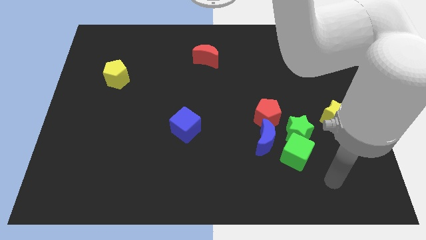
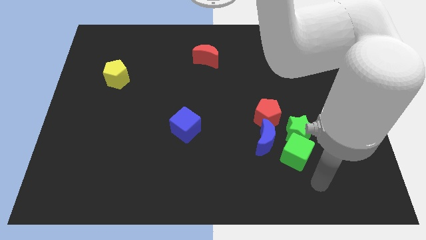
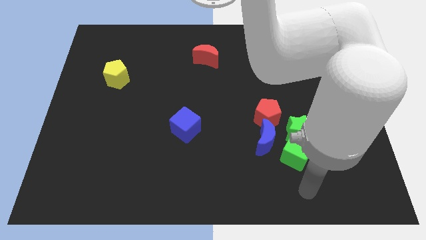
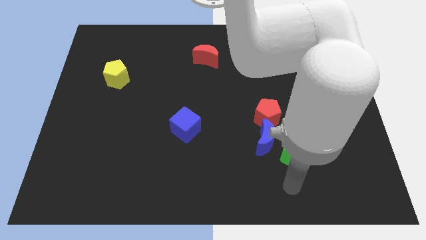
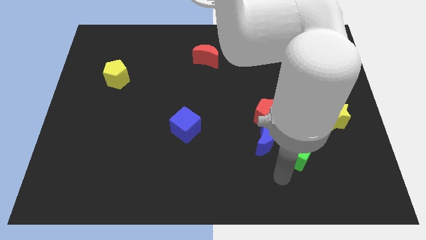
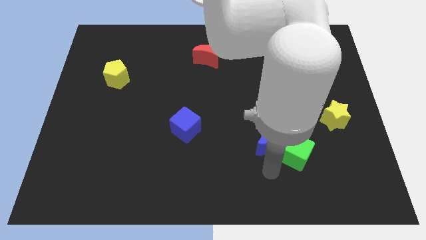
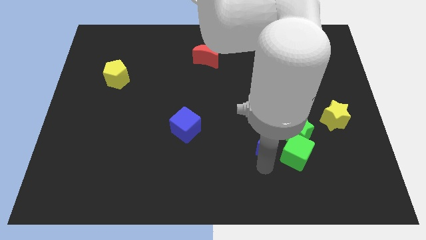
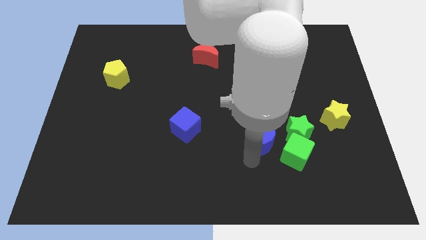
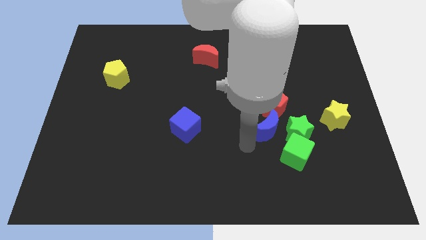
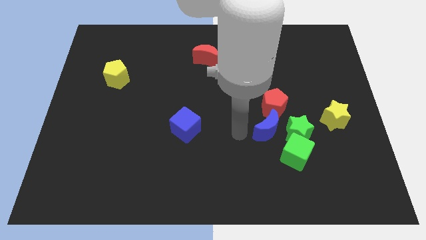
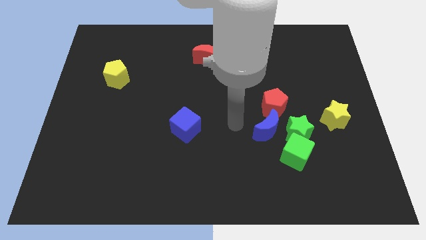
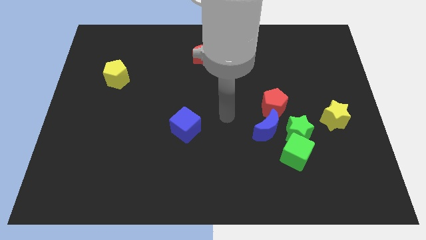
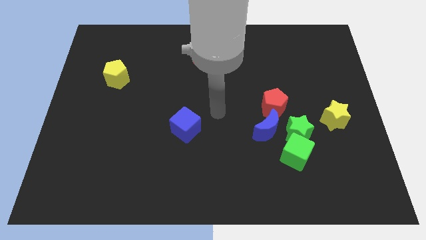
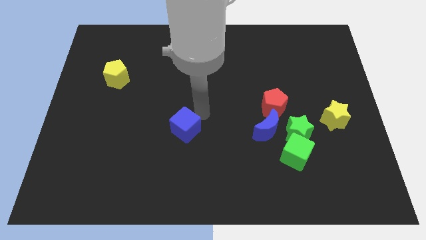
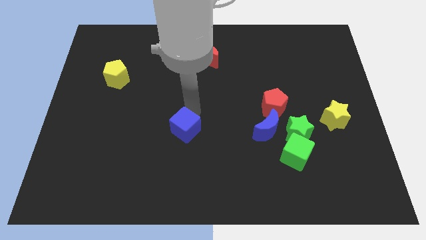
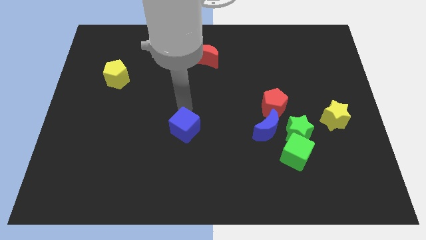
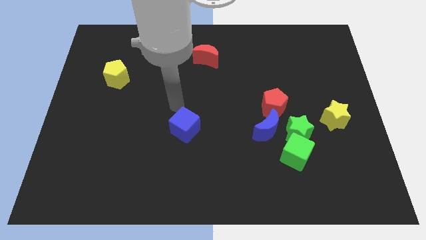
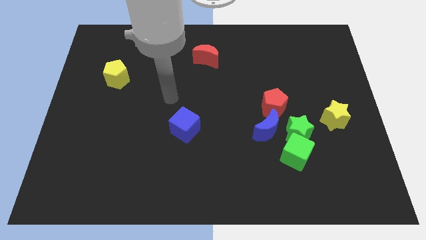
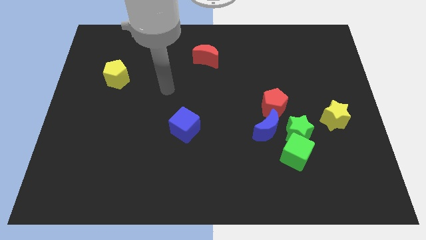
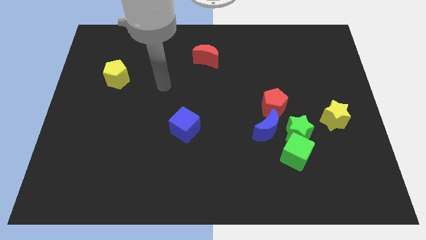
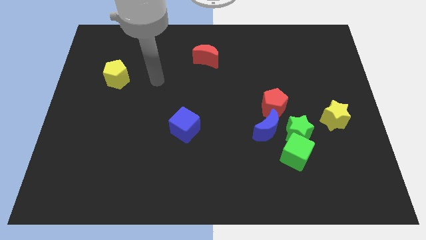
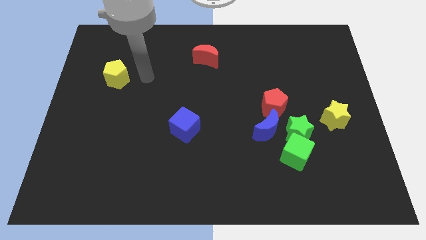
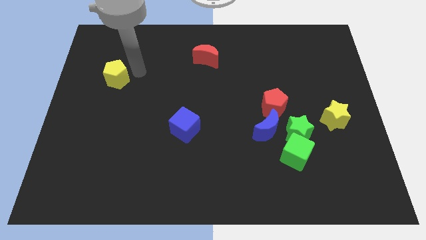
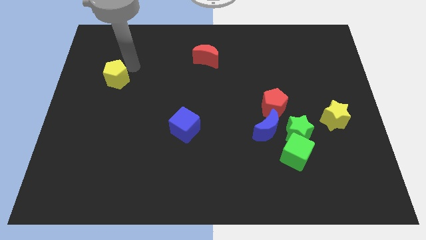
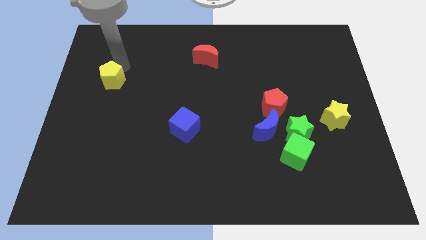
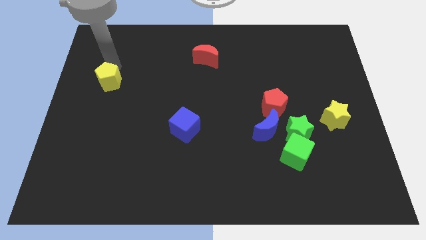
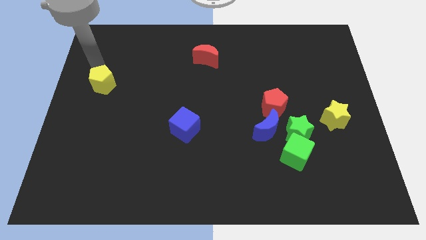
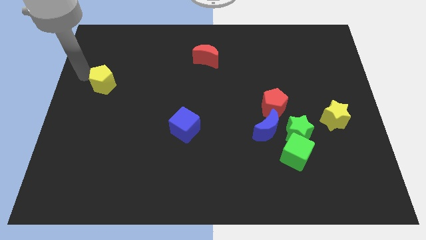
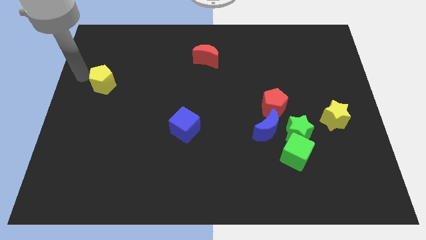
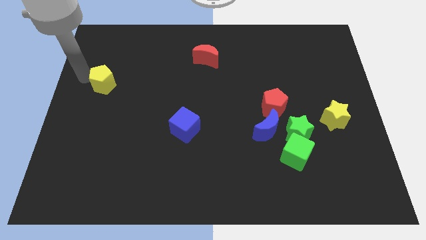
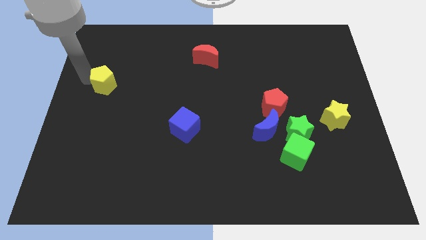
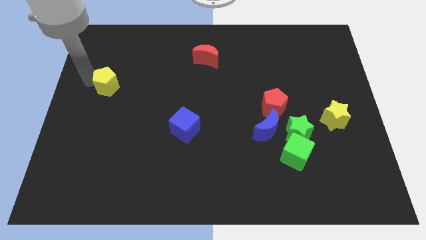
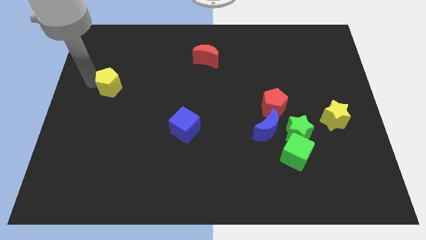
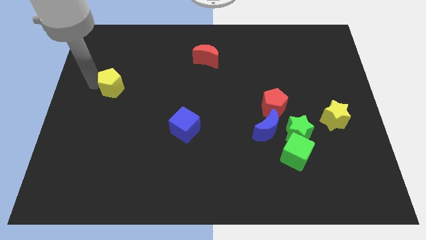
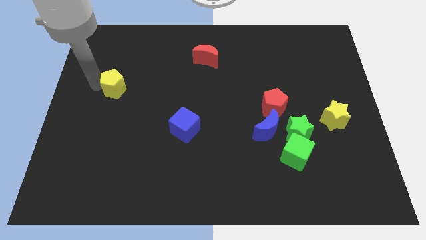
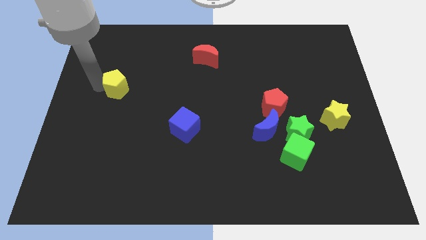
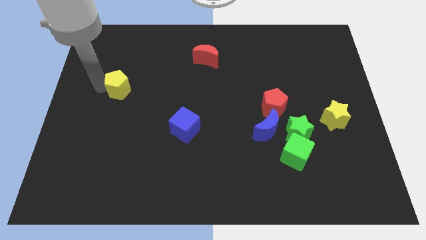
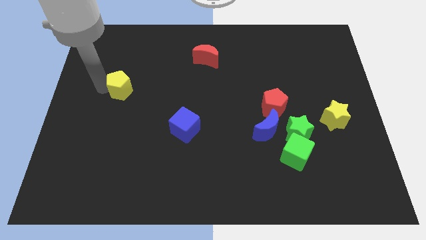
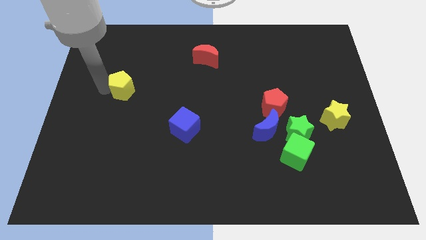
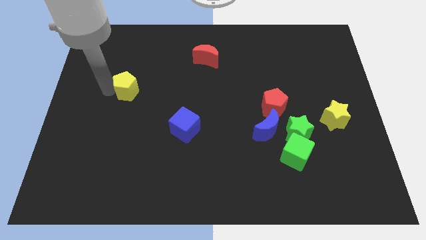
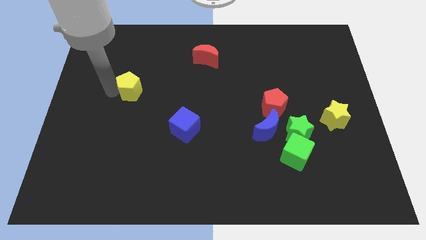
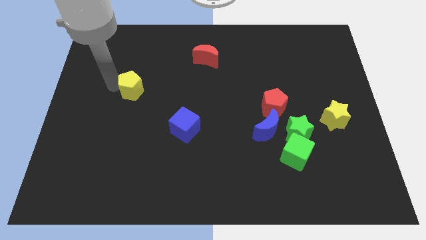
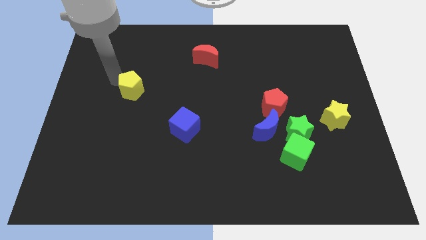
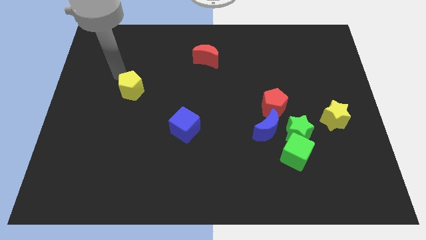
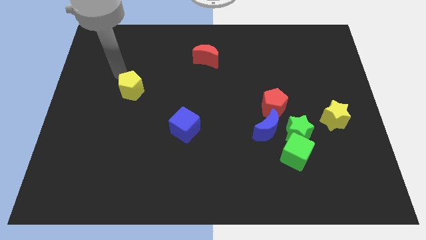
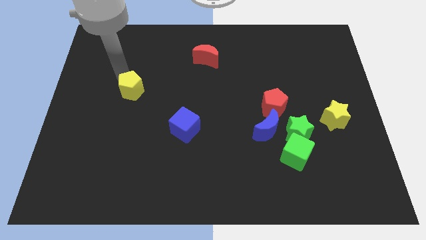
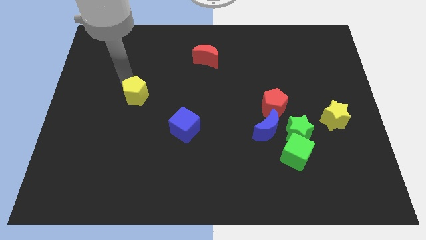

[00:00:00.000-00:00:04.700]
slide the yellow pentagon downwards and right a bit

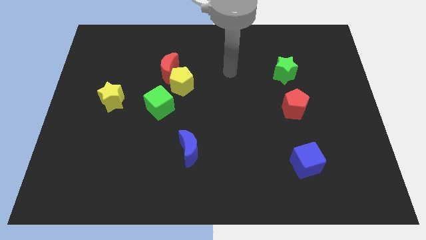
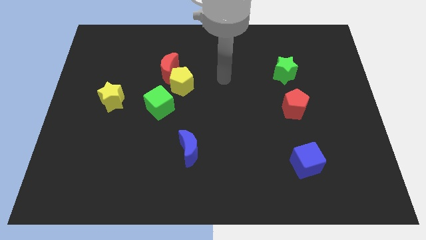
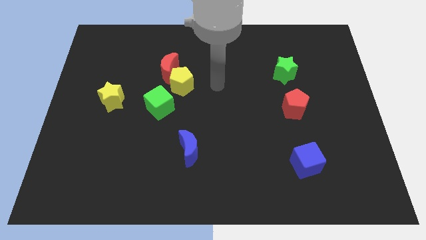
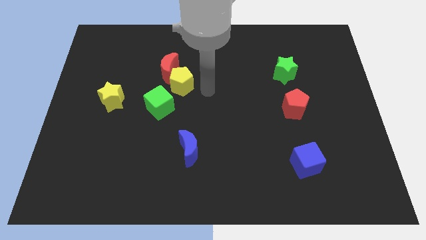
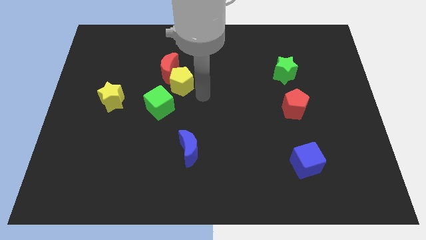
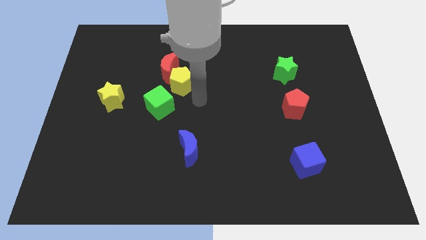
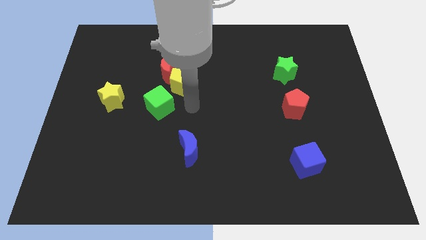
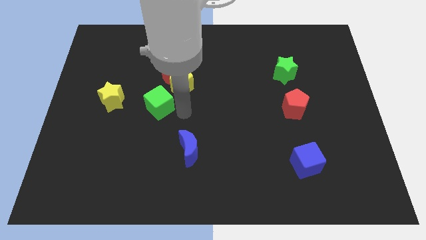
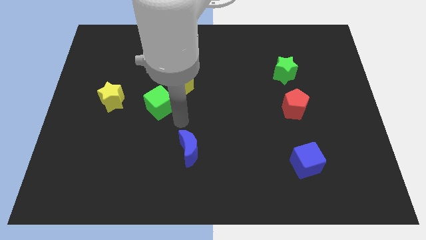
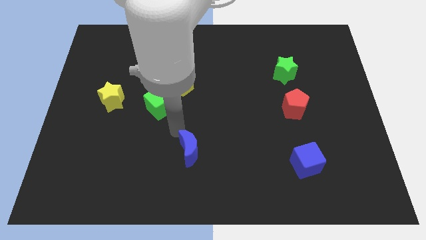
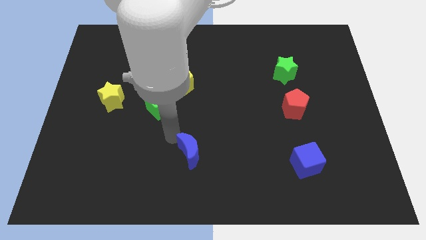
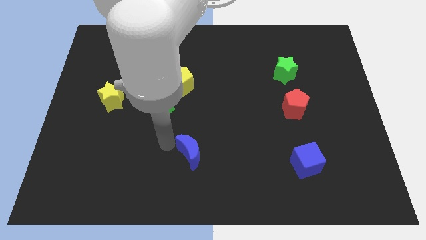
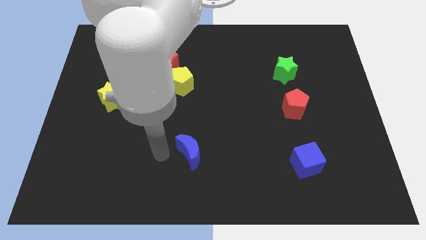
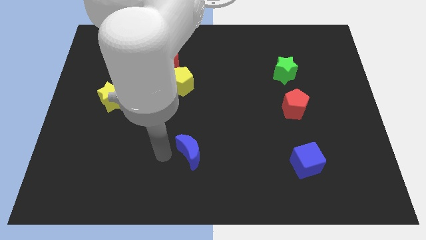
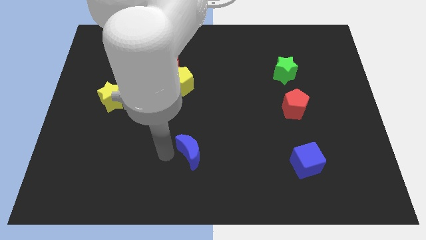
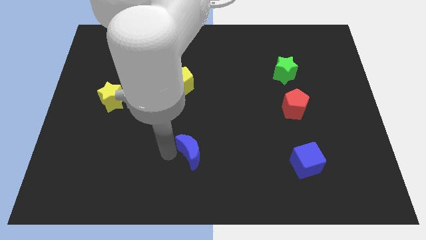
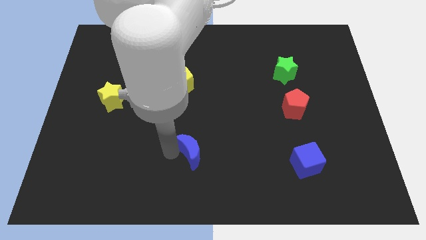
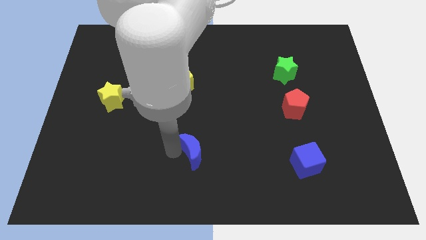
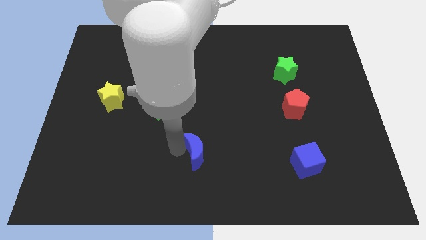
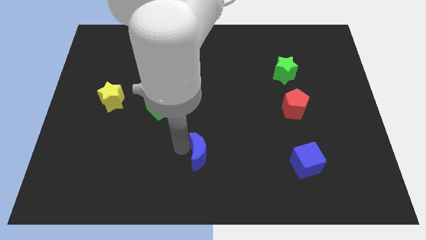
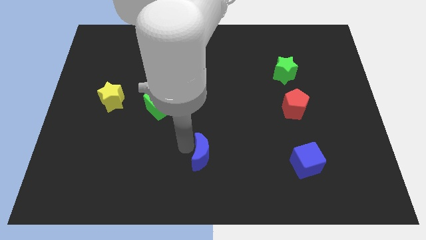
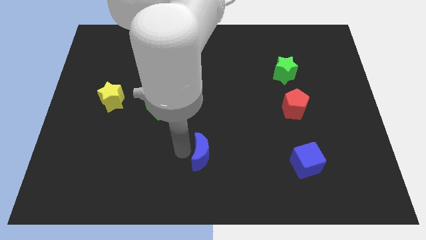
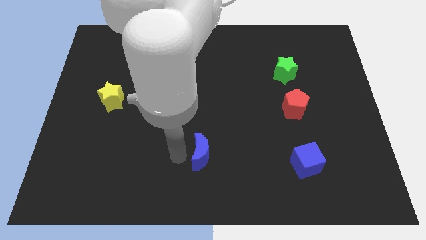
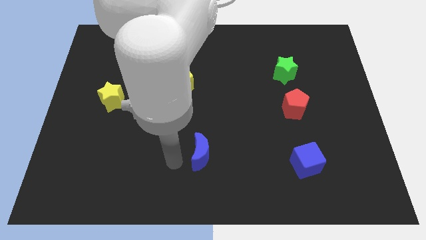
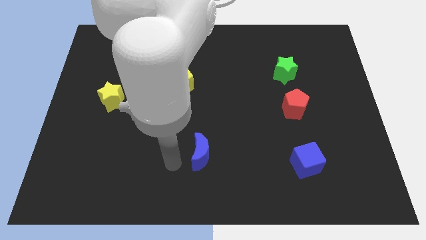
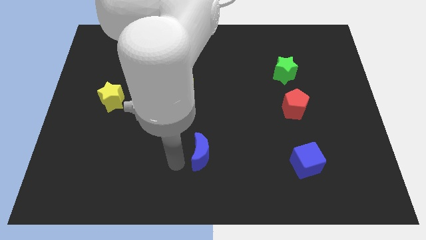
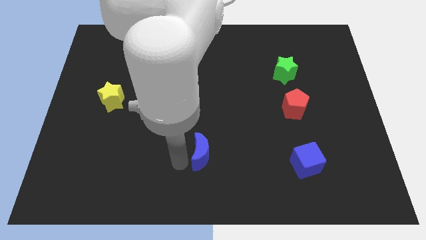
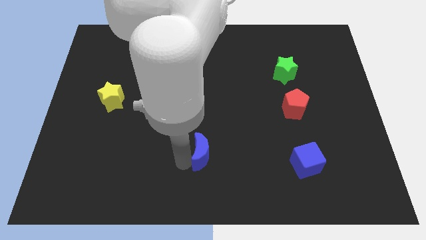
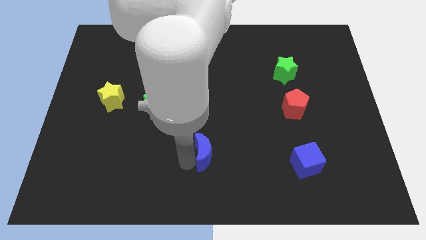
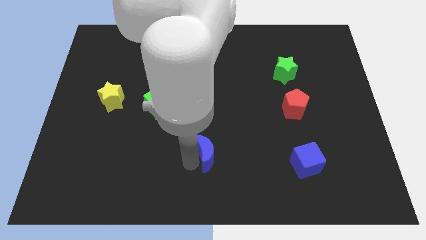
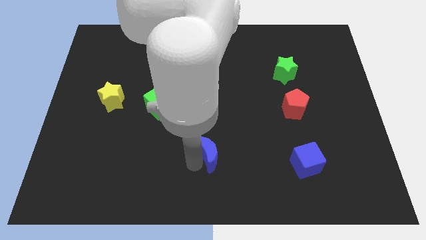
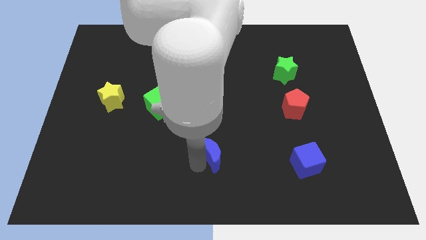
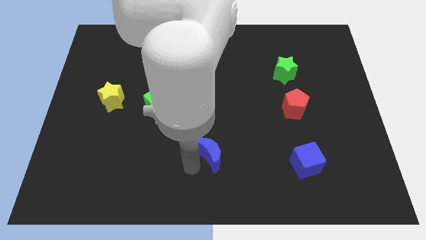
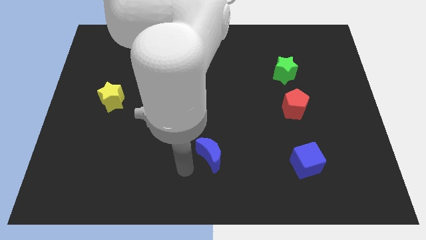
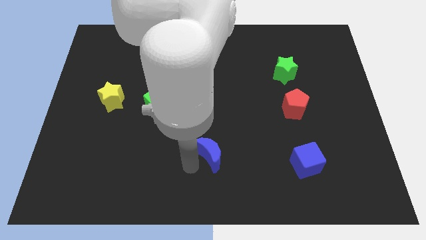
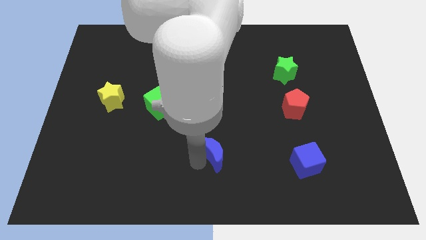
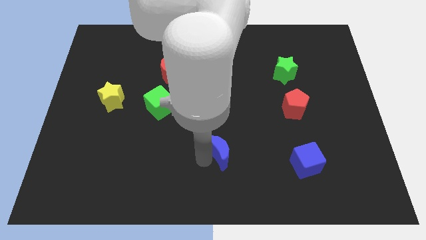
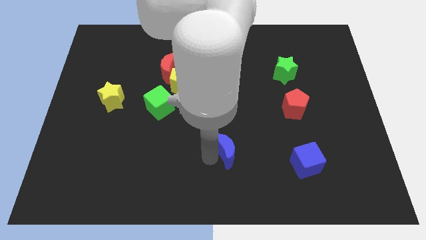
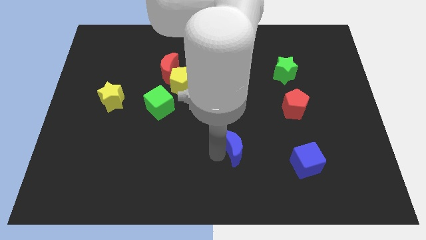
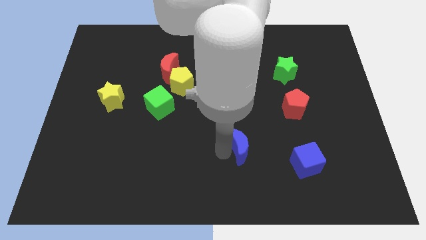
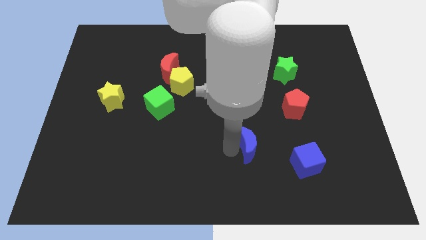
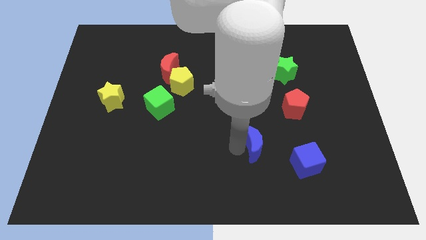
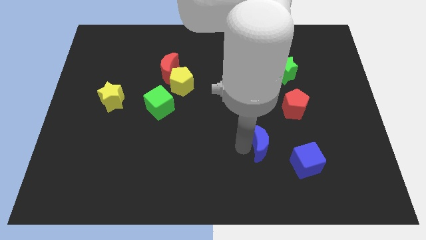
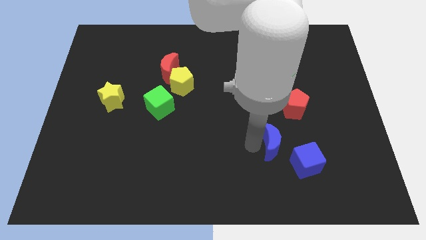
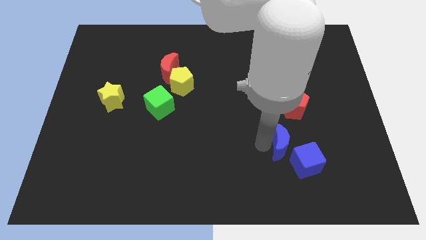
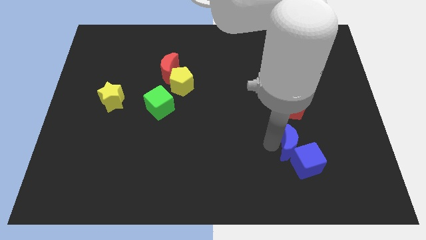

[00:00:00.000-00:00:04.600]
slide the blue moon to the right
